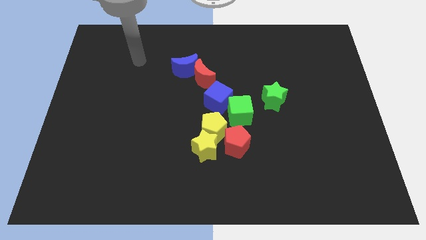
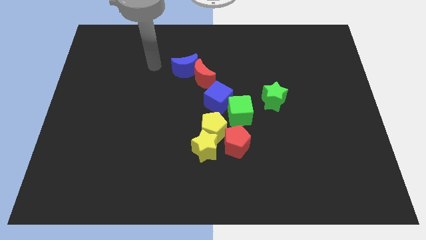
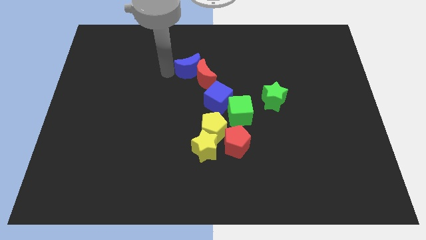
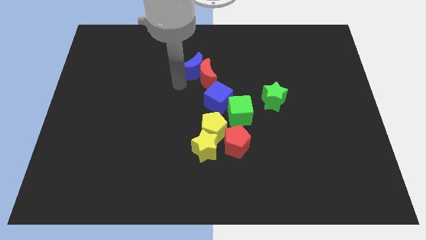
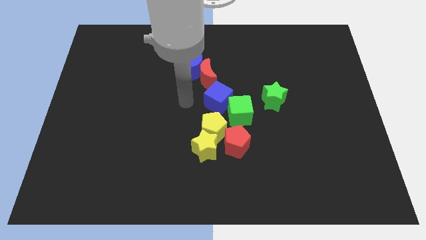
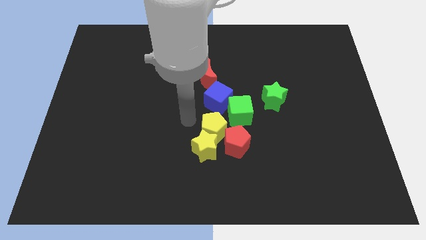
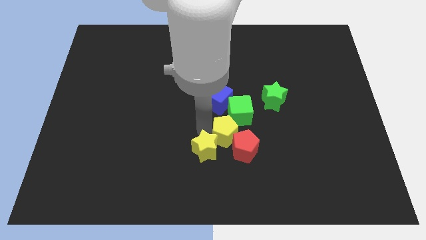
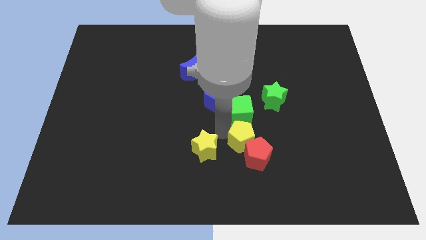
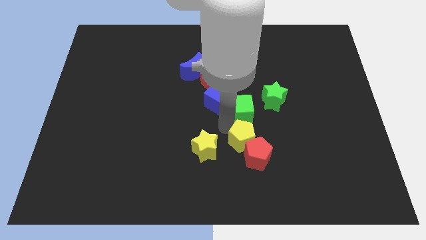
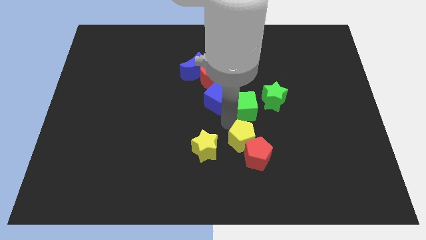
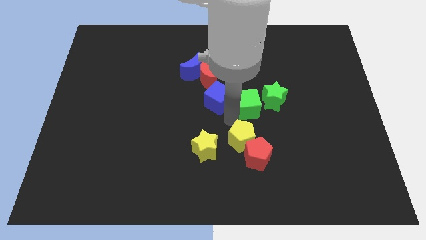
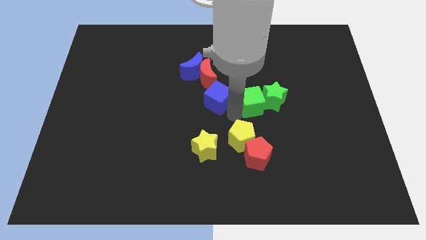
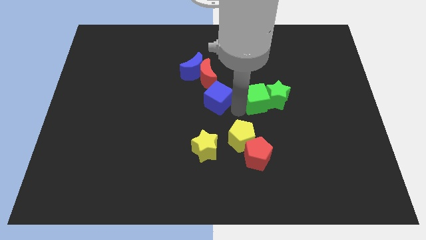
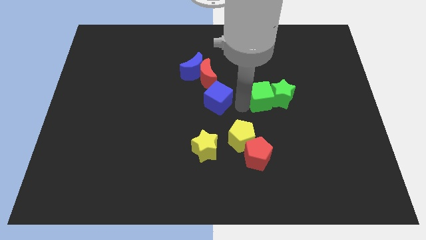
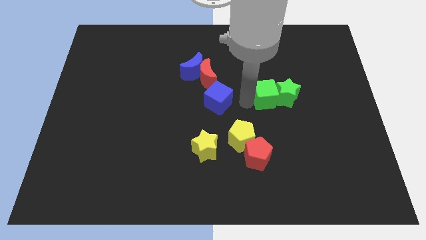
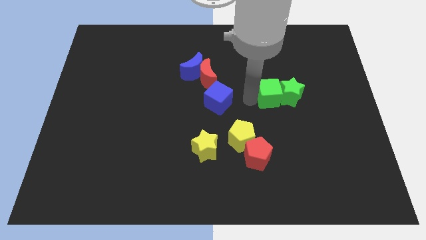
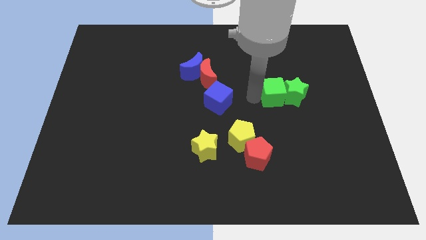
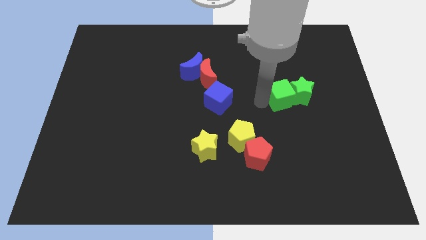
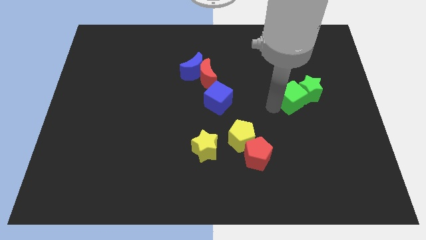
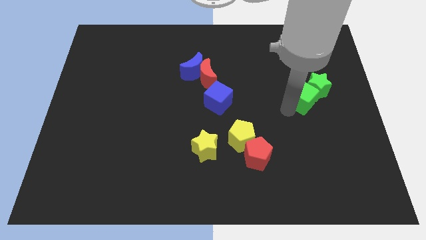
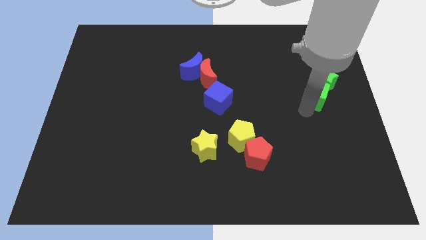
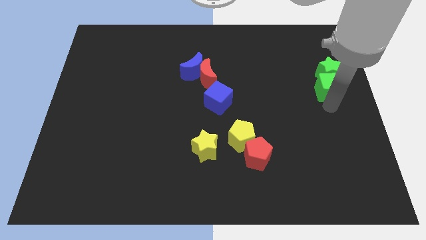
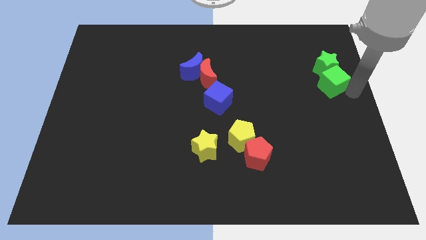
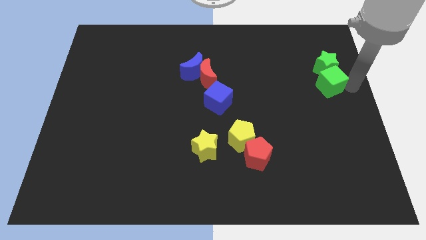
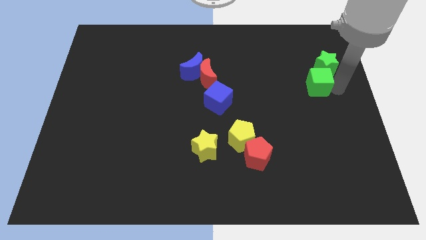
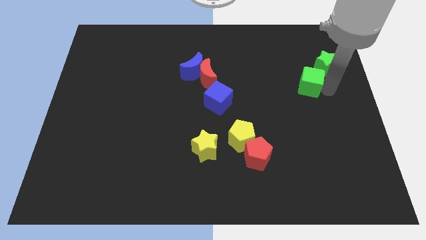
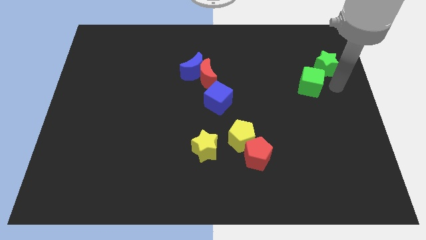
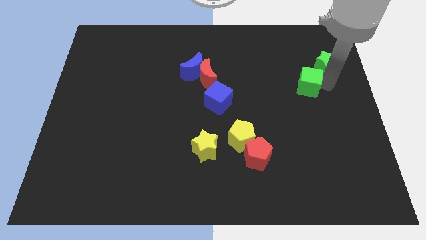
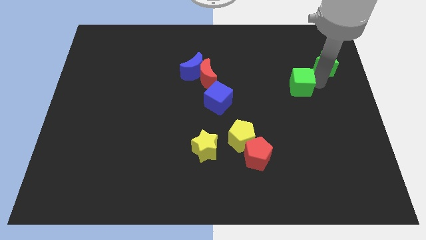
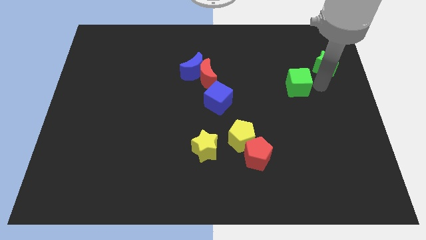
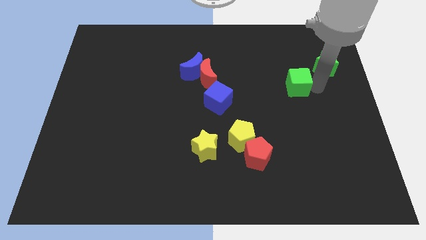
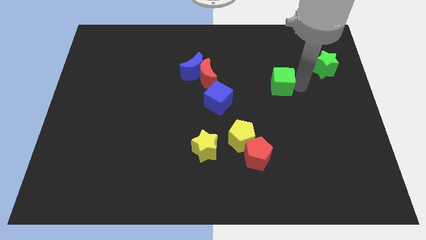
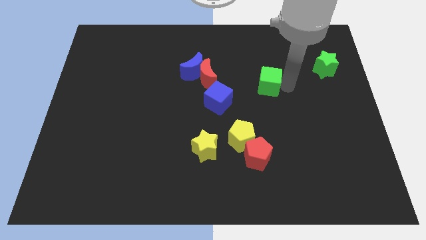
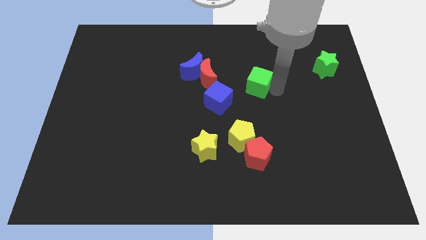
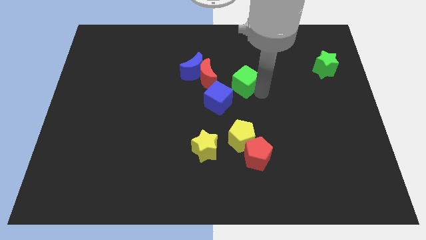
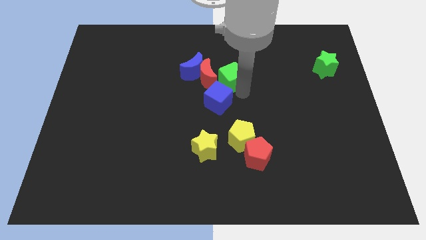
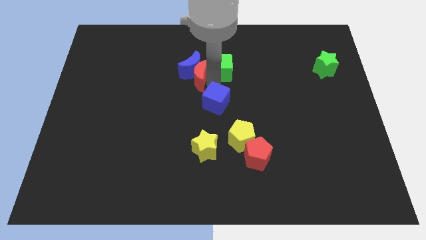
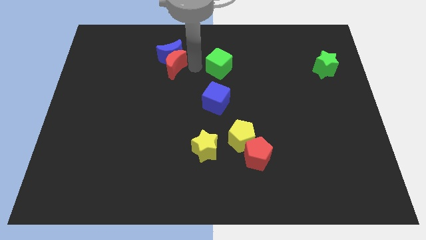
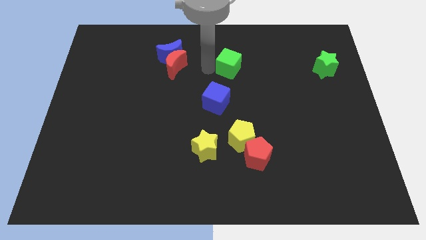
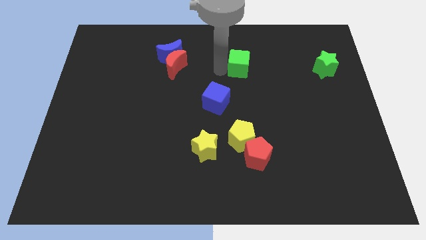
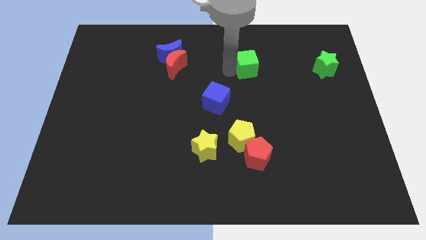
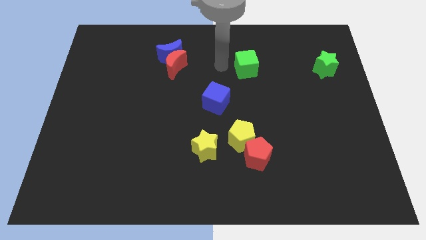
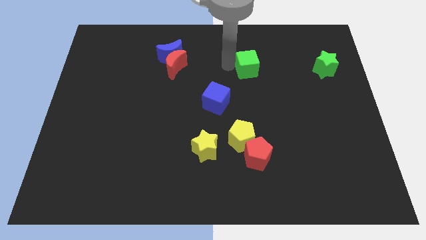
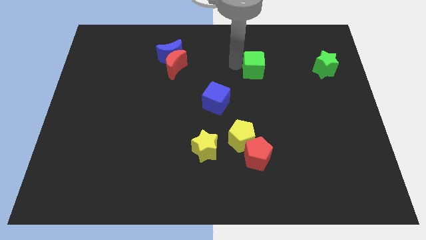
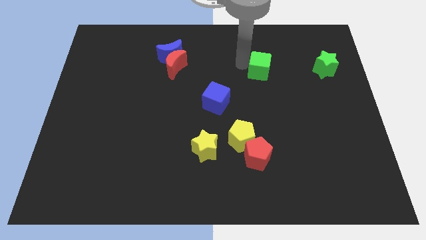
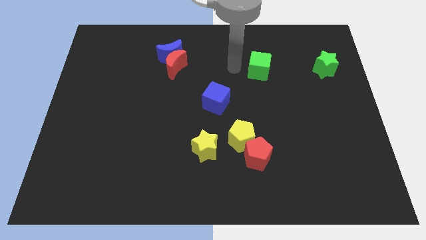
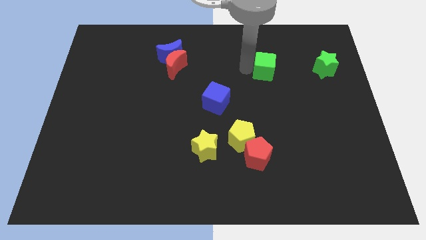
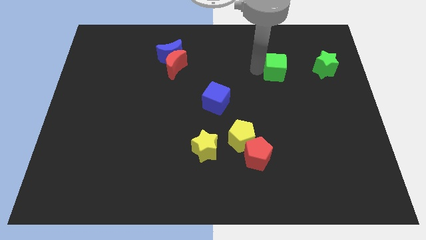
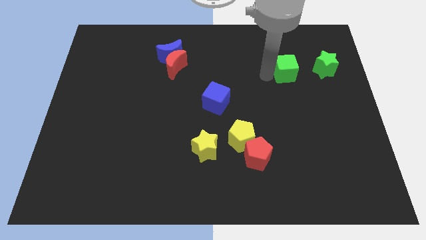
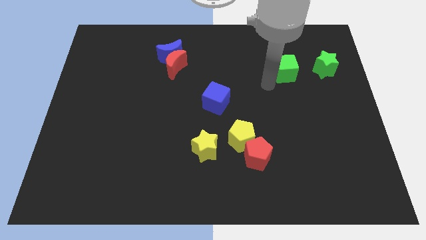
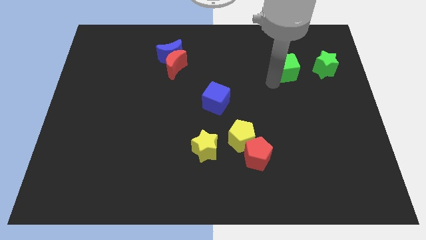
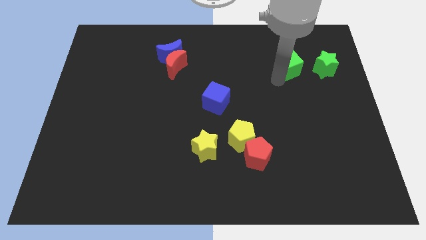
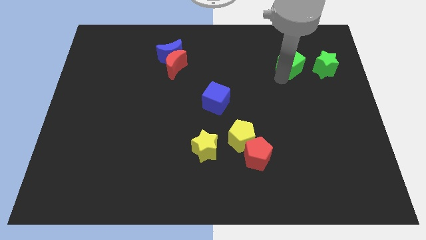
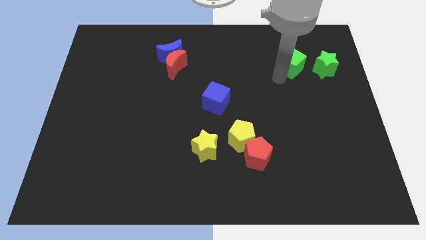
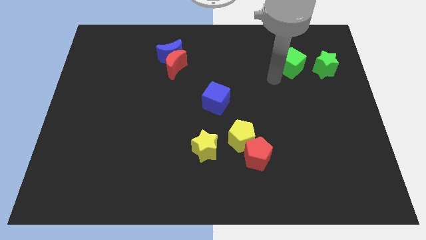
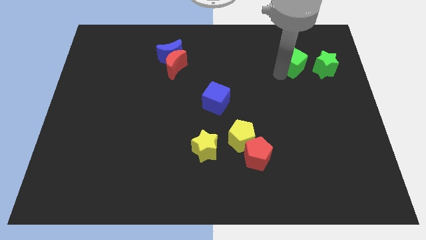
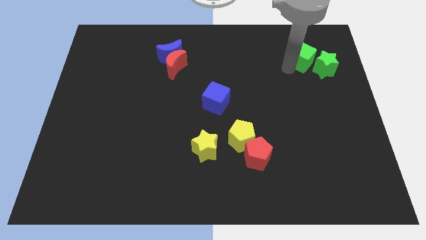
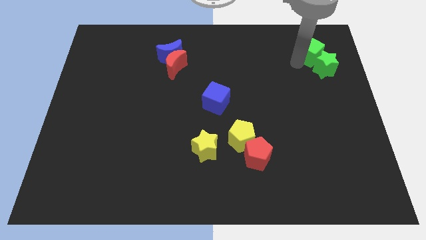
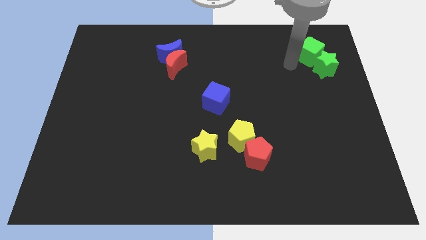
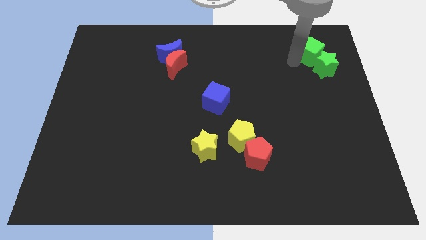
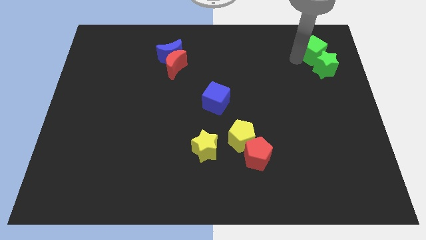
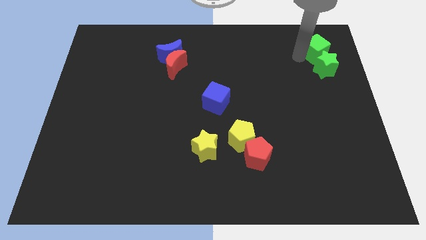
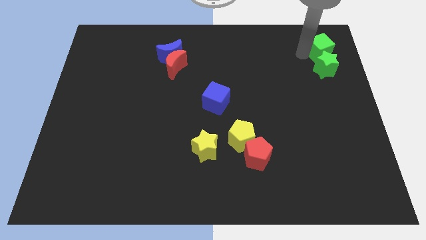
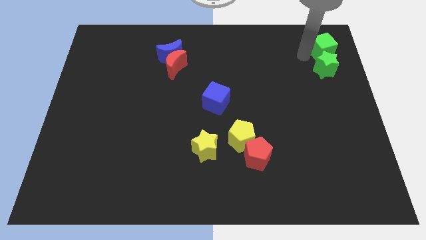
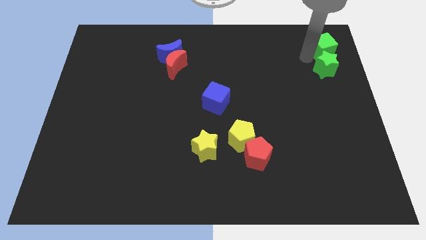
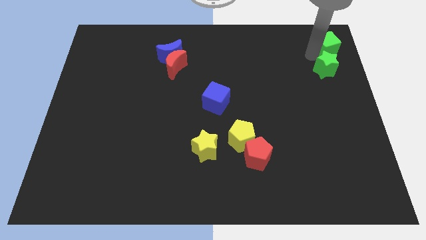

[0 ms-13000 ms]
move the green cube to the top right of the board
